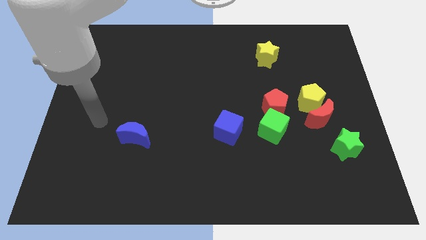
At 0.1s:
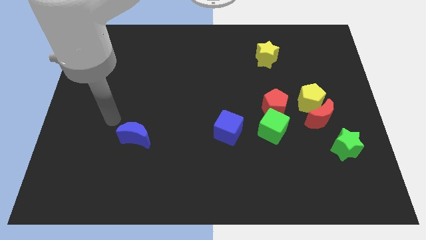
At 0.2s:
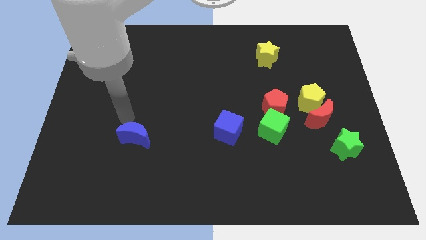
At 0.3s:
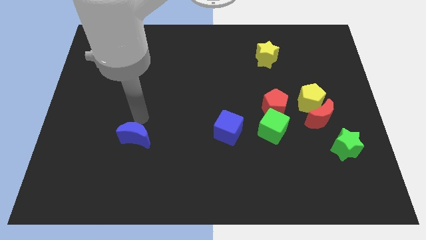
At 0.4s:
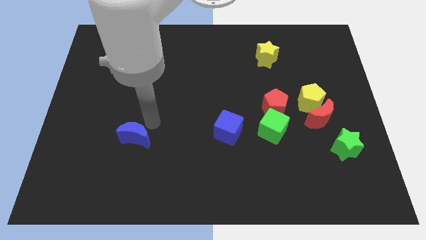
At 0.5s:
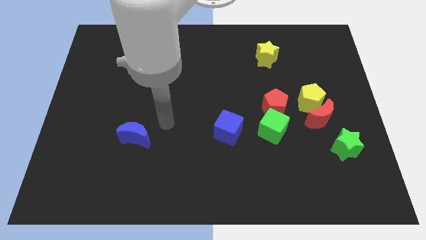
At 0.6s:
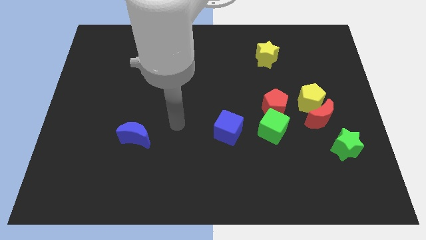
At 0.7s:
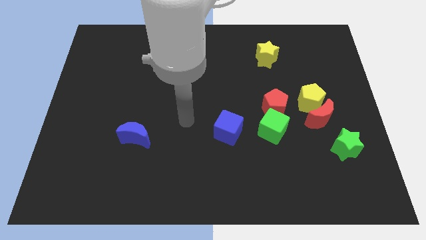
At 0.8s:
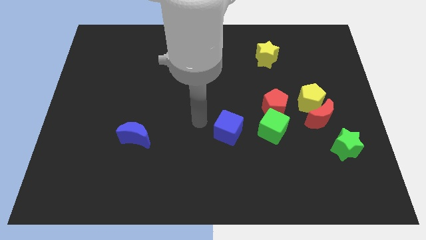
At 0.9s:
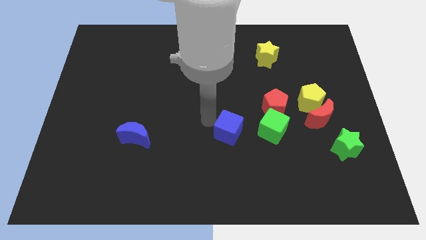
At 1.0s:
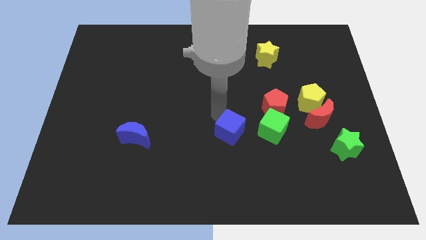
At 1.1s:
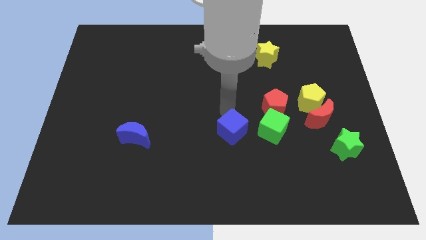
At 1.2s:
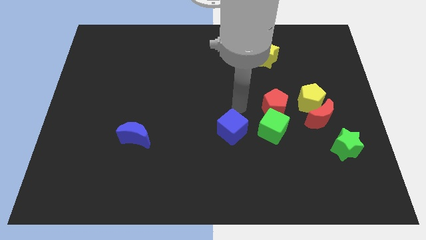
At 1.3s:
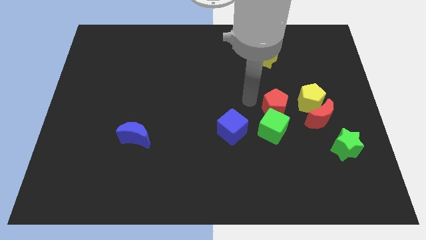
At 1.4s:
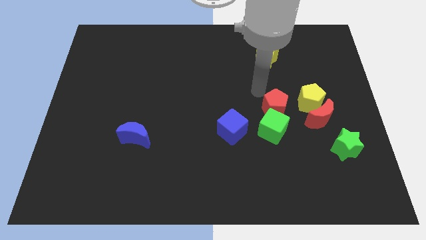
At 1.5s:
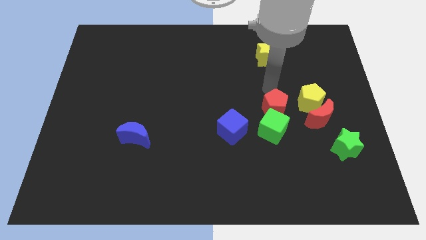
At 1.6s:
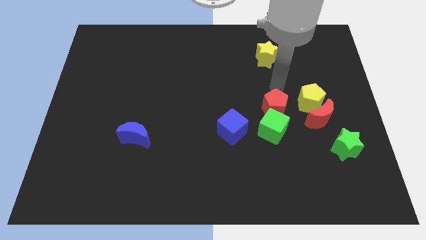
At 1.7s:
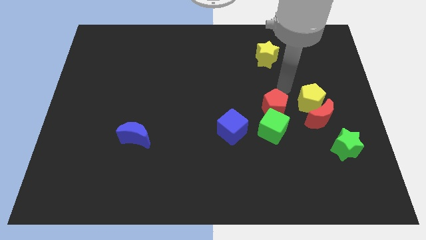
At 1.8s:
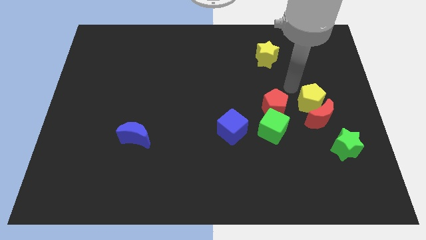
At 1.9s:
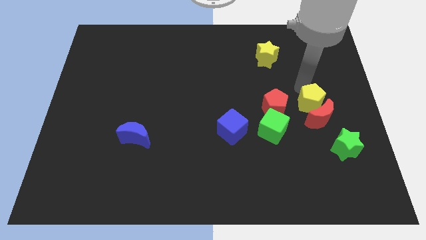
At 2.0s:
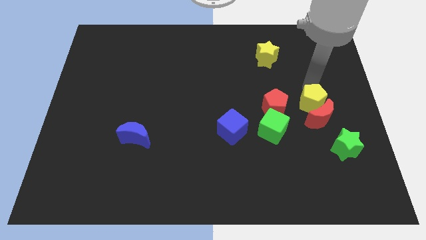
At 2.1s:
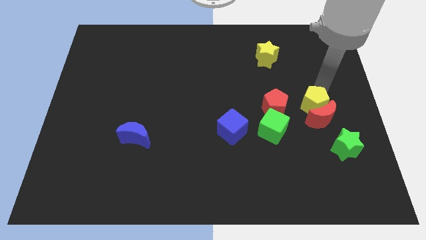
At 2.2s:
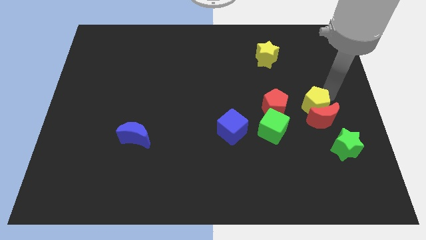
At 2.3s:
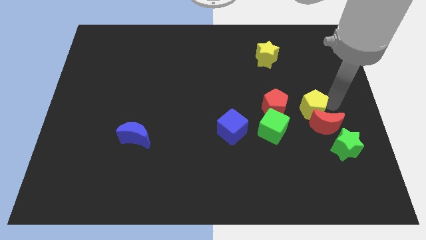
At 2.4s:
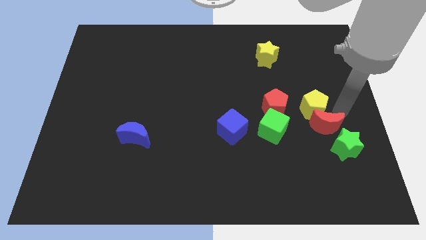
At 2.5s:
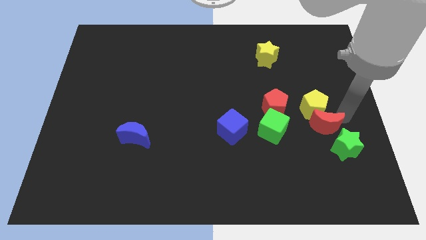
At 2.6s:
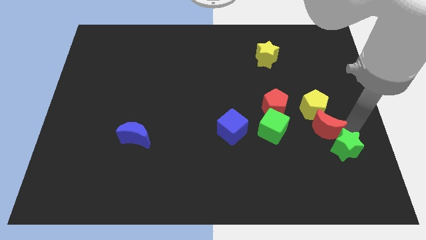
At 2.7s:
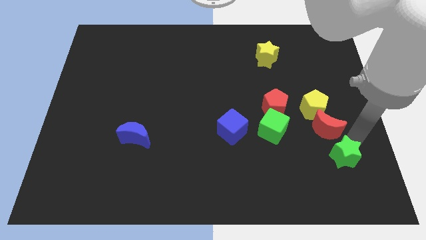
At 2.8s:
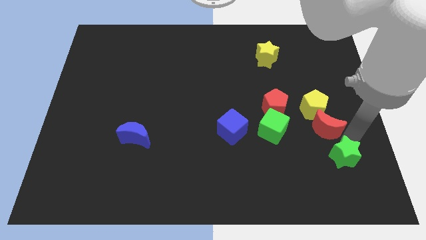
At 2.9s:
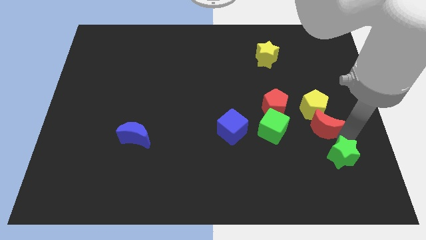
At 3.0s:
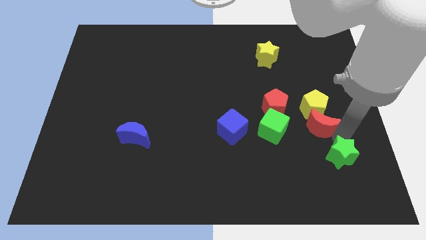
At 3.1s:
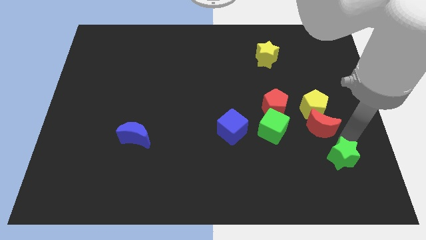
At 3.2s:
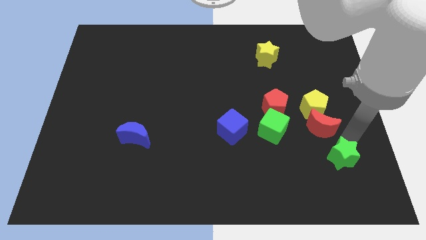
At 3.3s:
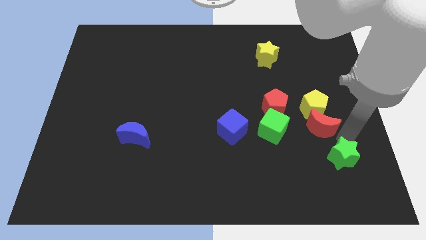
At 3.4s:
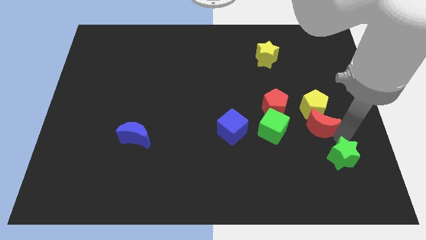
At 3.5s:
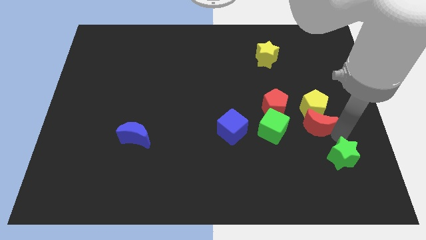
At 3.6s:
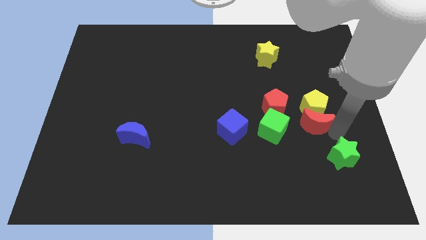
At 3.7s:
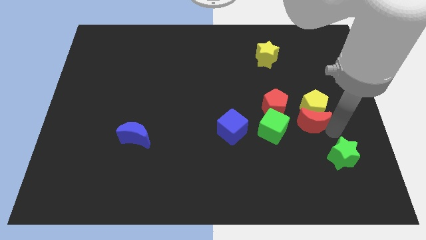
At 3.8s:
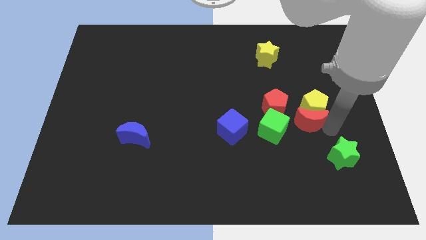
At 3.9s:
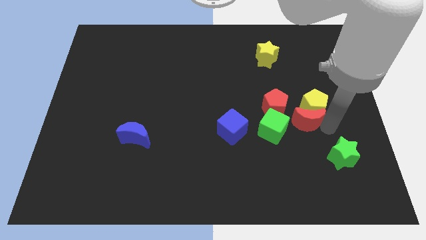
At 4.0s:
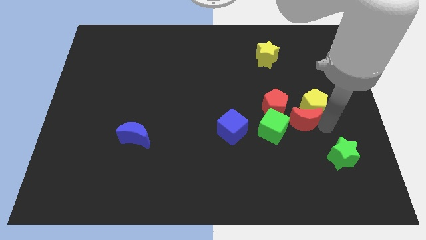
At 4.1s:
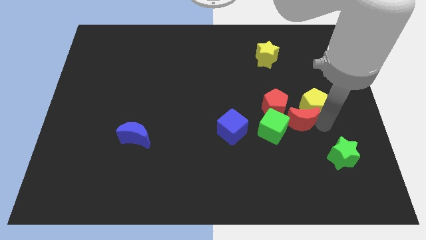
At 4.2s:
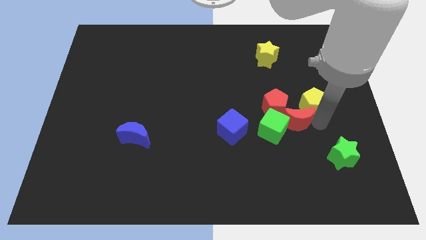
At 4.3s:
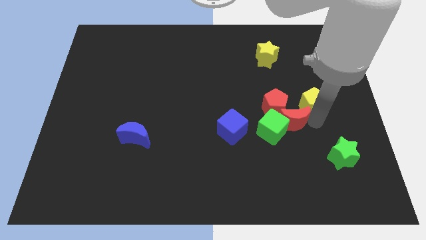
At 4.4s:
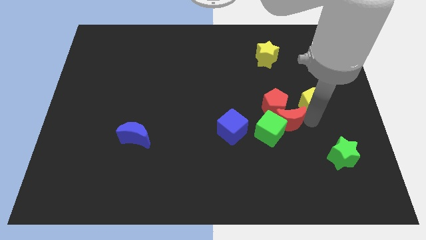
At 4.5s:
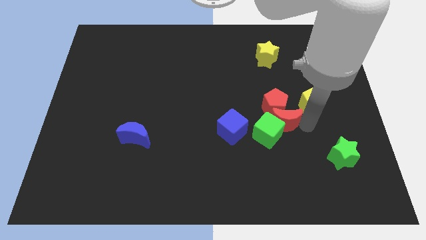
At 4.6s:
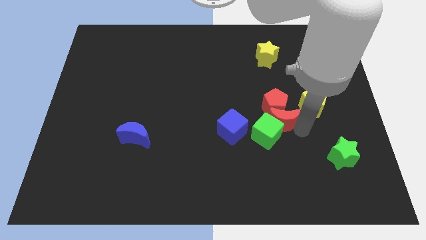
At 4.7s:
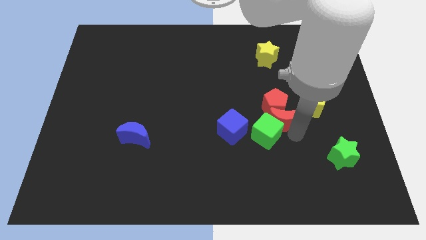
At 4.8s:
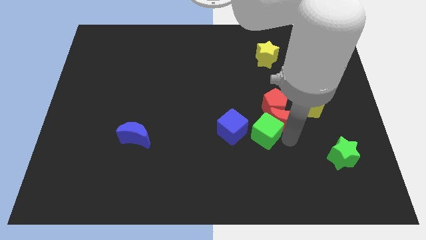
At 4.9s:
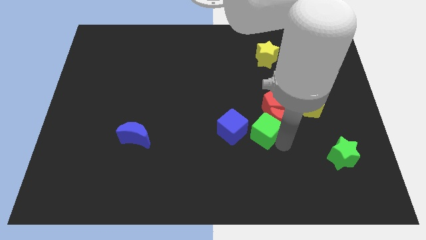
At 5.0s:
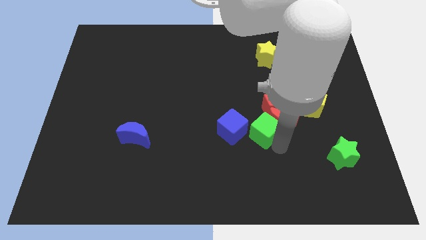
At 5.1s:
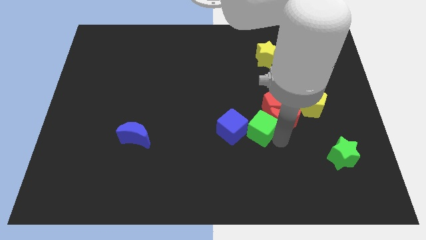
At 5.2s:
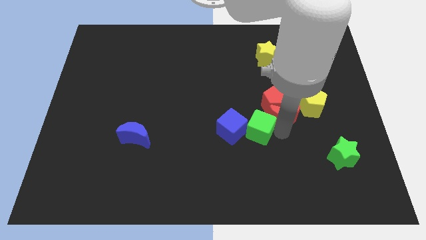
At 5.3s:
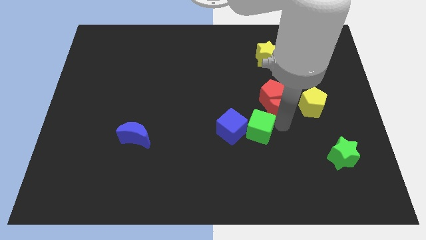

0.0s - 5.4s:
slightly push the red moon diagonally upwards and to the left

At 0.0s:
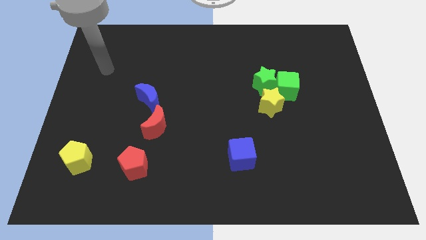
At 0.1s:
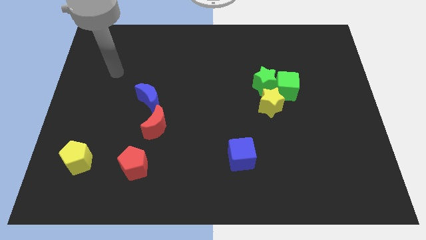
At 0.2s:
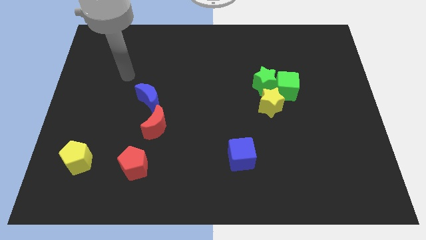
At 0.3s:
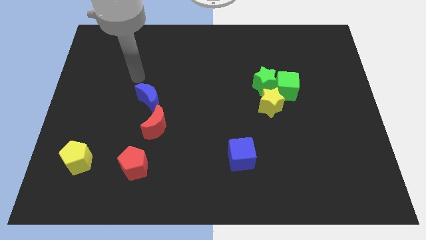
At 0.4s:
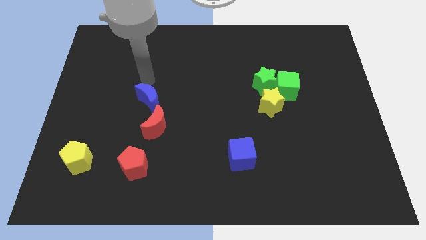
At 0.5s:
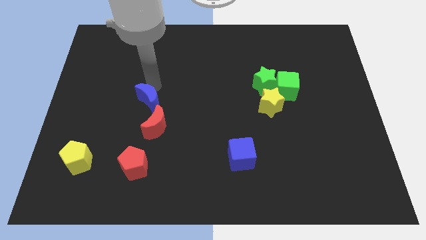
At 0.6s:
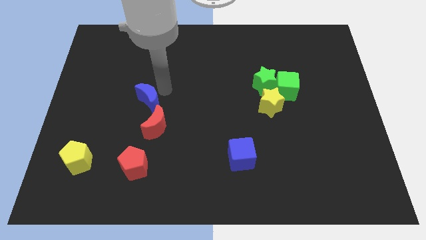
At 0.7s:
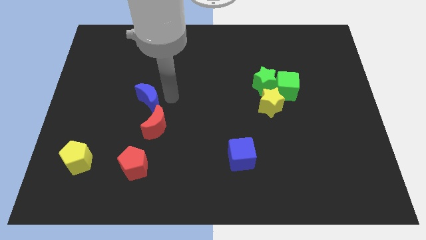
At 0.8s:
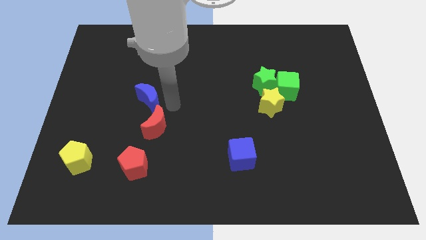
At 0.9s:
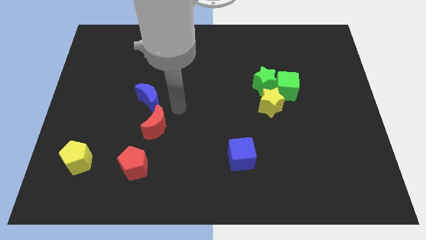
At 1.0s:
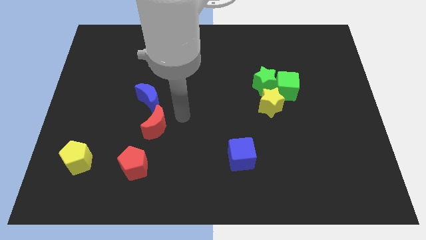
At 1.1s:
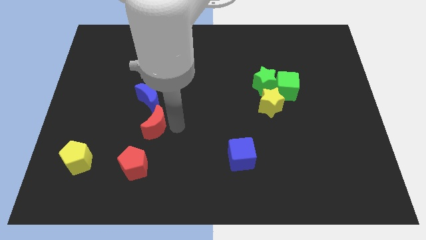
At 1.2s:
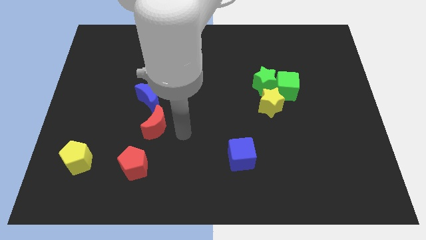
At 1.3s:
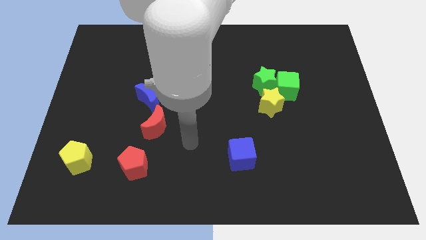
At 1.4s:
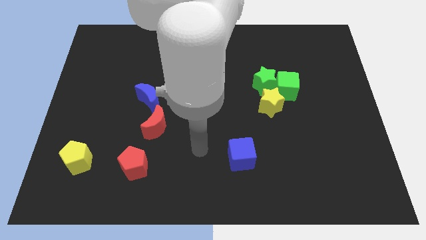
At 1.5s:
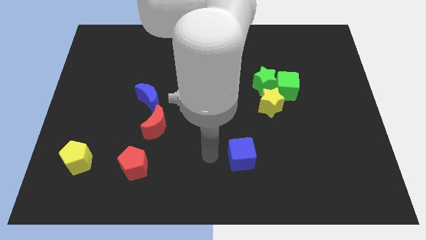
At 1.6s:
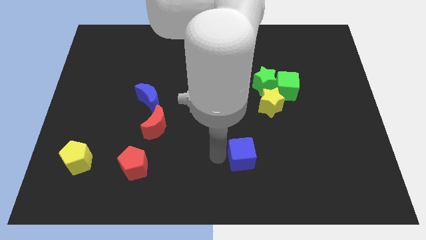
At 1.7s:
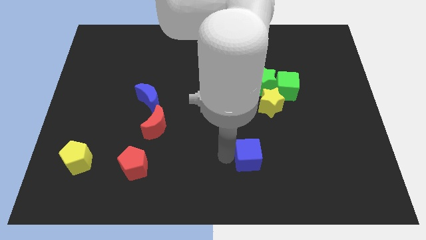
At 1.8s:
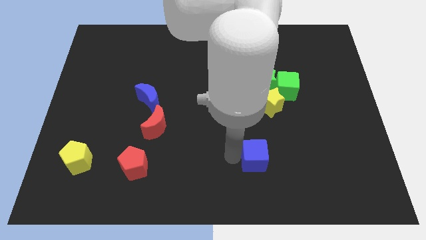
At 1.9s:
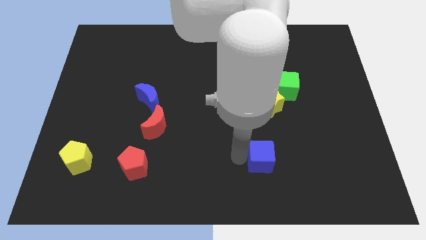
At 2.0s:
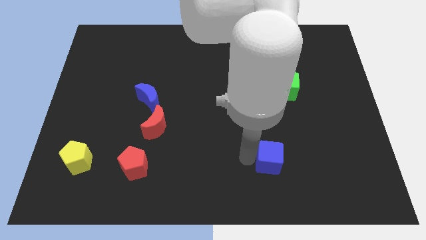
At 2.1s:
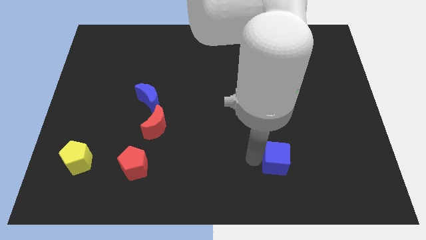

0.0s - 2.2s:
move the blue cube right somewhat

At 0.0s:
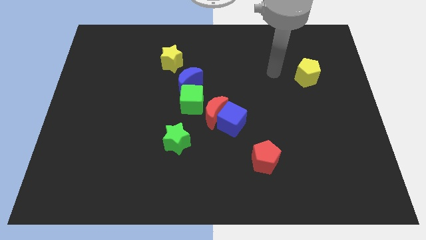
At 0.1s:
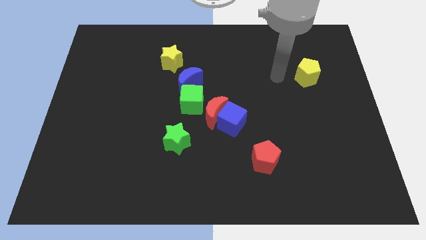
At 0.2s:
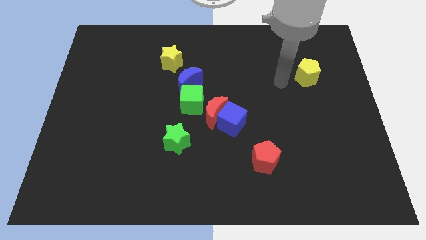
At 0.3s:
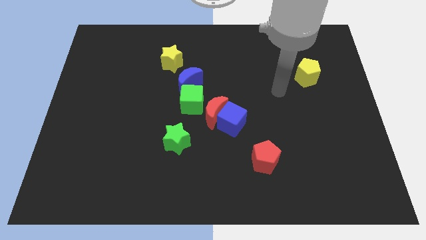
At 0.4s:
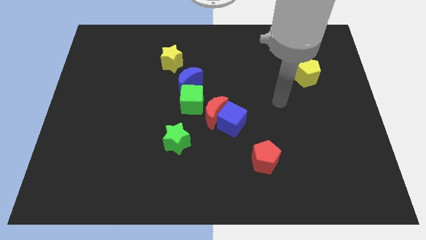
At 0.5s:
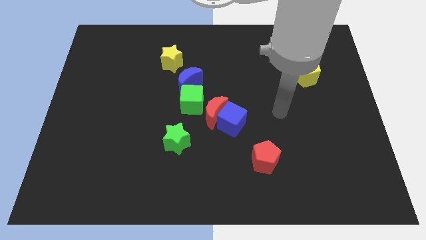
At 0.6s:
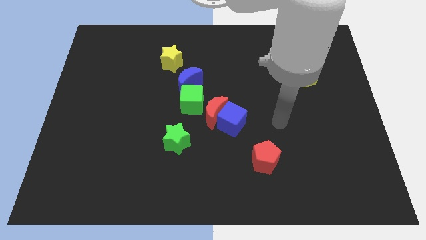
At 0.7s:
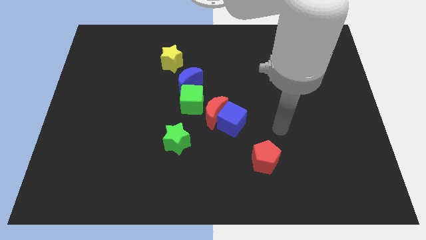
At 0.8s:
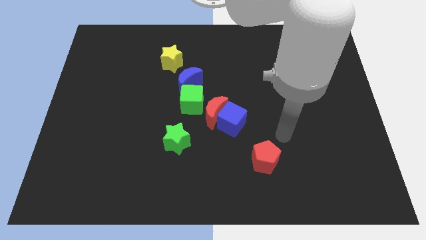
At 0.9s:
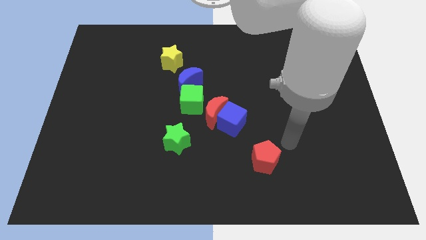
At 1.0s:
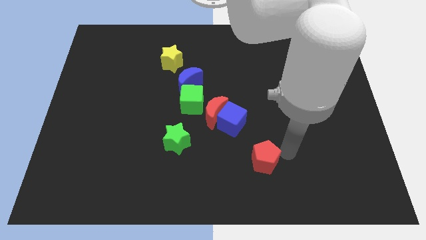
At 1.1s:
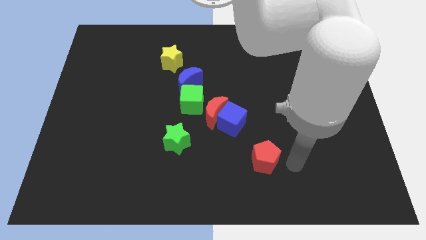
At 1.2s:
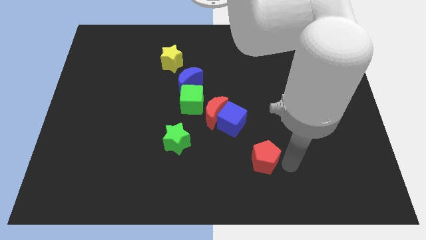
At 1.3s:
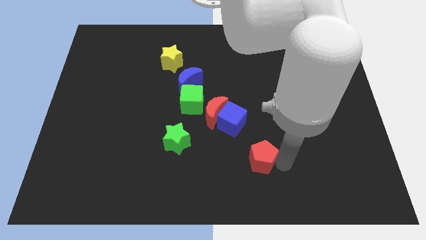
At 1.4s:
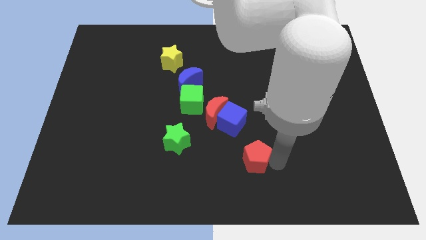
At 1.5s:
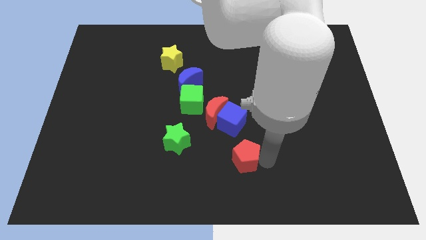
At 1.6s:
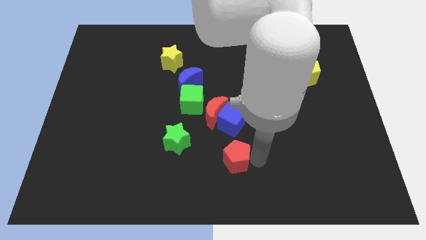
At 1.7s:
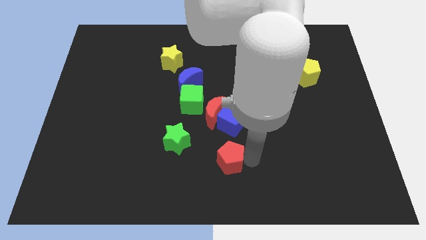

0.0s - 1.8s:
move the red pentagon to the left somewhat
